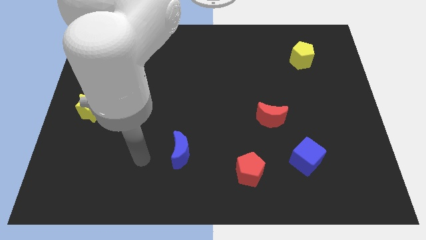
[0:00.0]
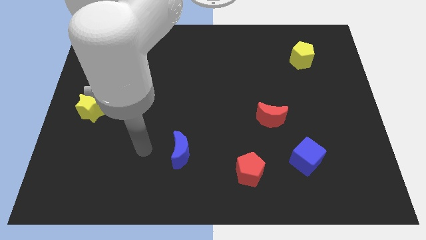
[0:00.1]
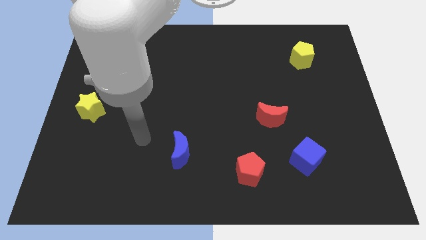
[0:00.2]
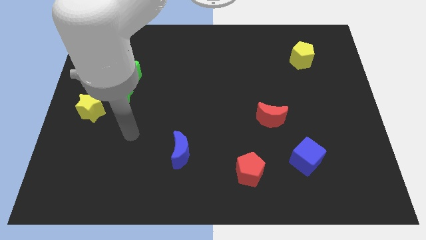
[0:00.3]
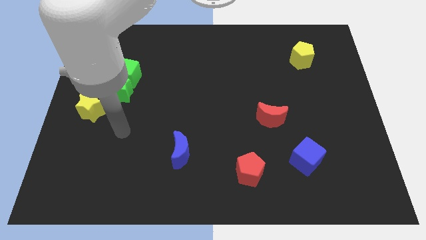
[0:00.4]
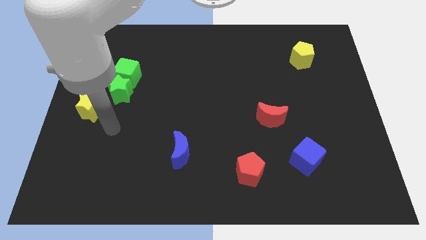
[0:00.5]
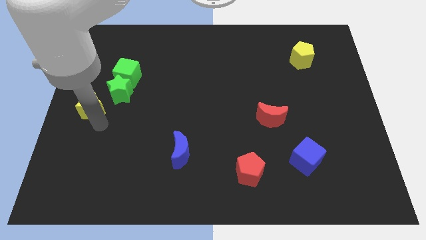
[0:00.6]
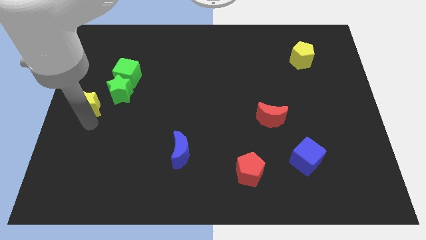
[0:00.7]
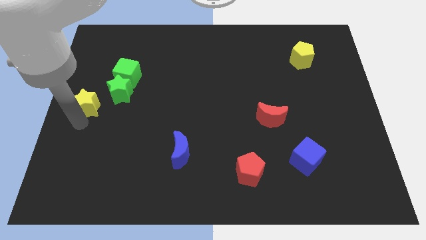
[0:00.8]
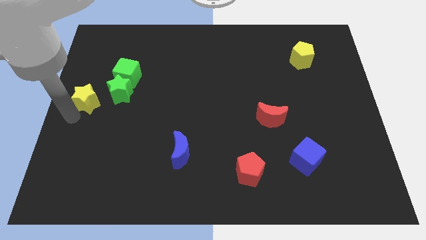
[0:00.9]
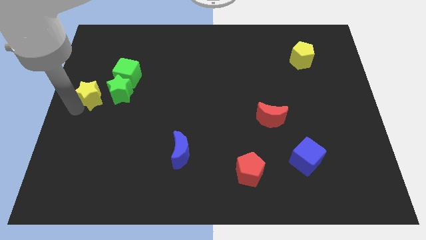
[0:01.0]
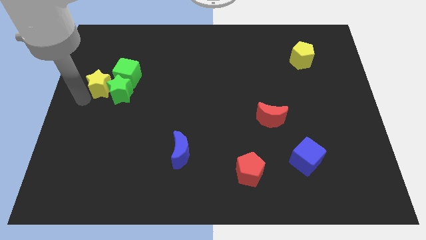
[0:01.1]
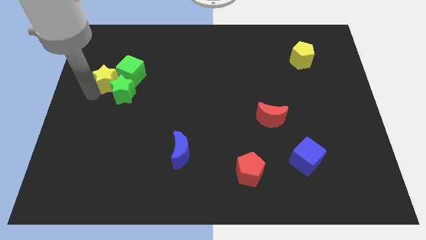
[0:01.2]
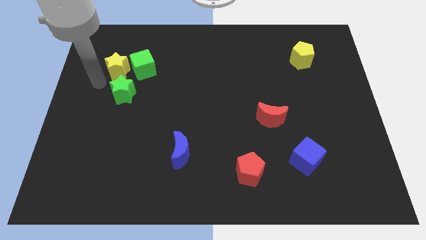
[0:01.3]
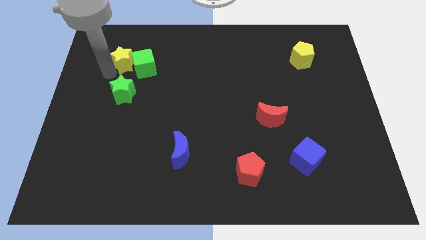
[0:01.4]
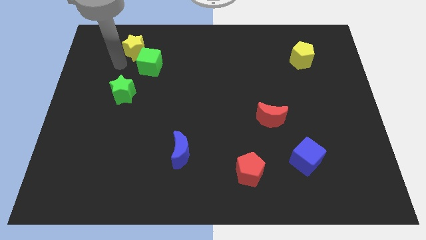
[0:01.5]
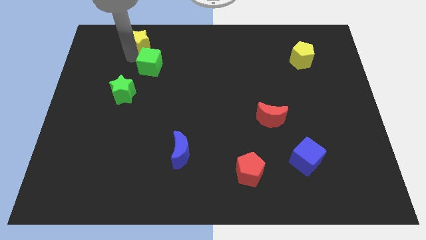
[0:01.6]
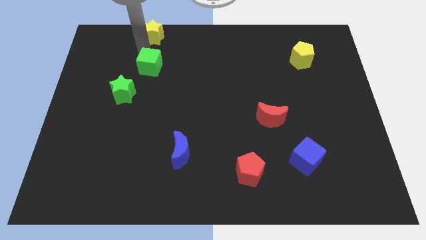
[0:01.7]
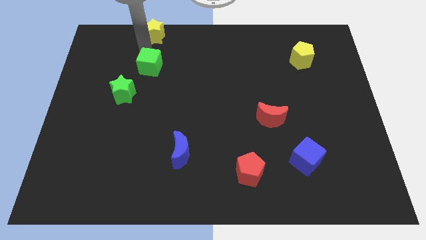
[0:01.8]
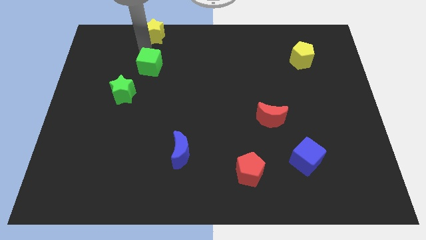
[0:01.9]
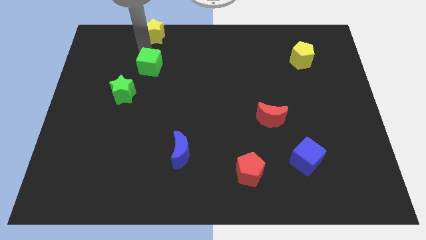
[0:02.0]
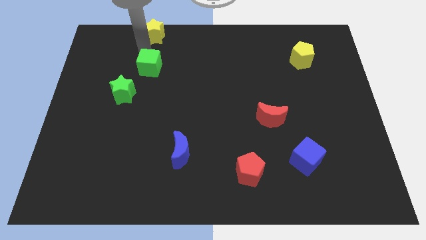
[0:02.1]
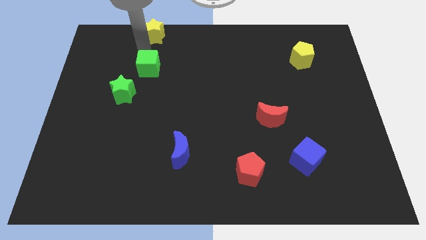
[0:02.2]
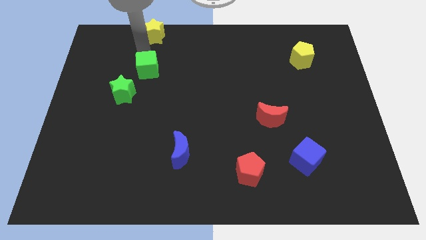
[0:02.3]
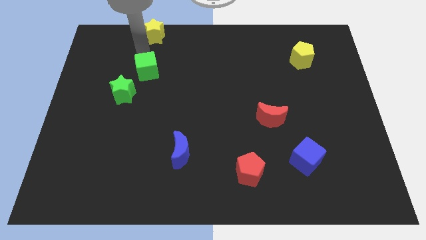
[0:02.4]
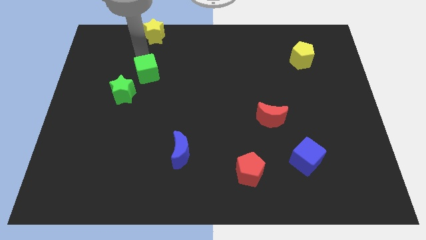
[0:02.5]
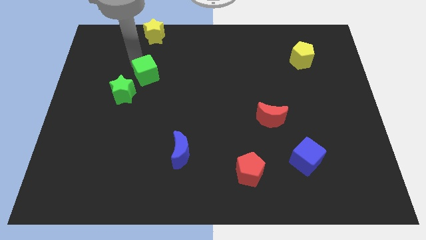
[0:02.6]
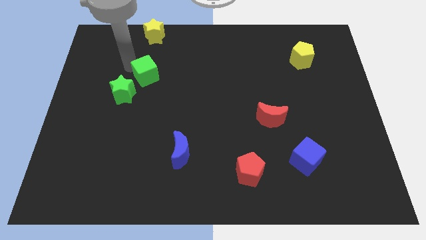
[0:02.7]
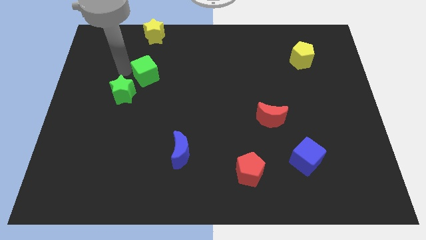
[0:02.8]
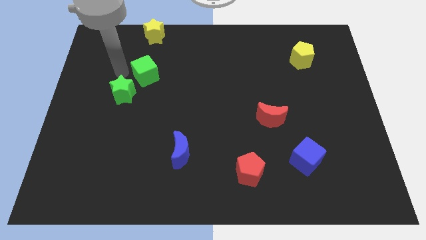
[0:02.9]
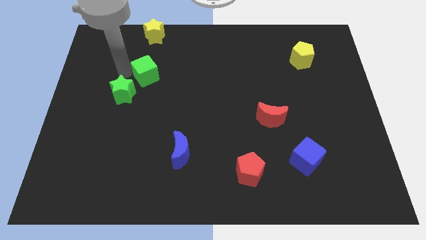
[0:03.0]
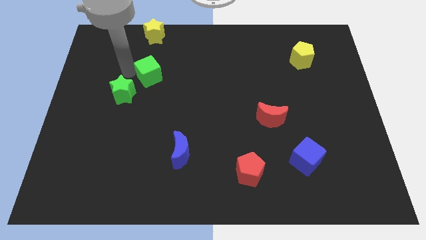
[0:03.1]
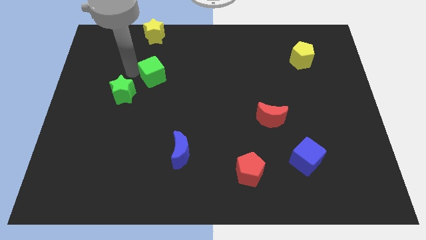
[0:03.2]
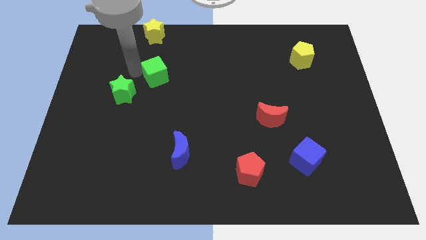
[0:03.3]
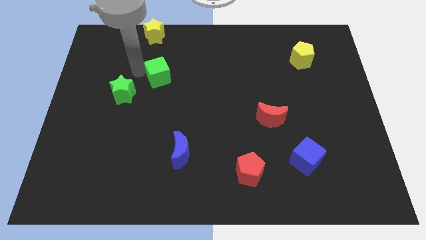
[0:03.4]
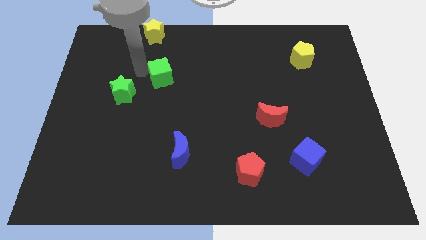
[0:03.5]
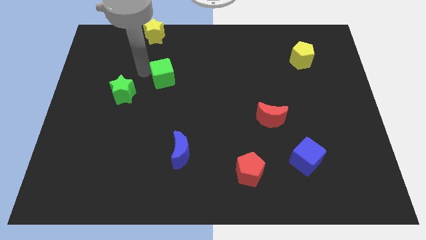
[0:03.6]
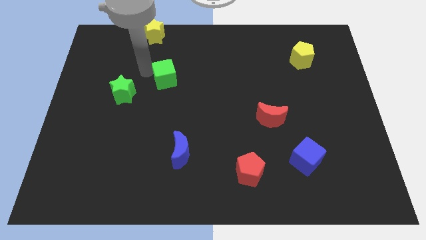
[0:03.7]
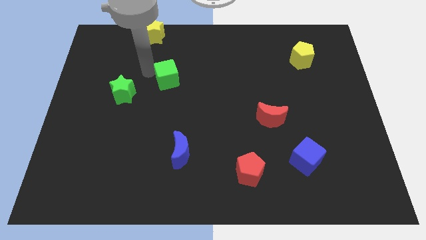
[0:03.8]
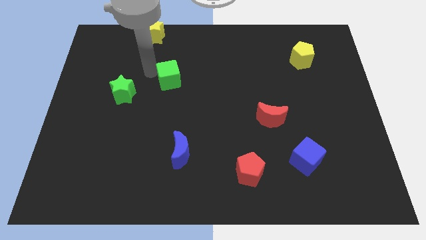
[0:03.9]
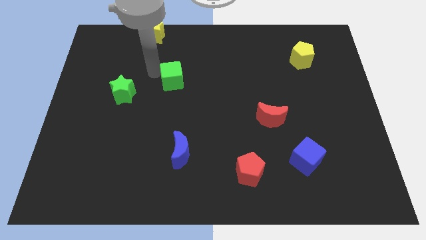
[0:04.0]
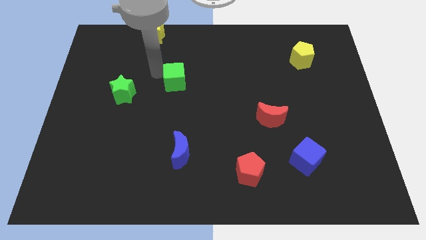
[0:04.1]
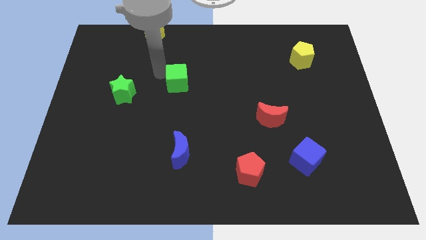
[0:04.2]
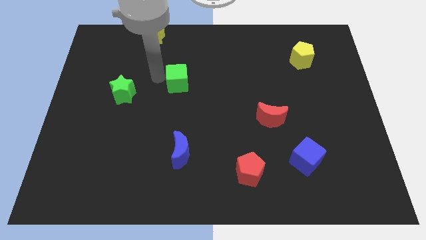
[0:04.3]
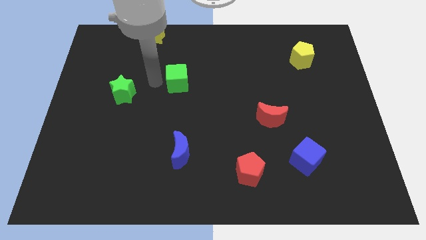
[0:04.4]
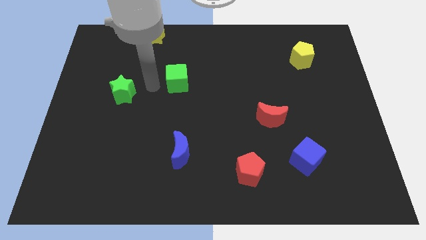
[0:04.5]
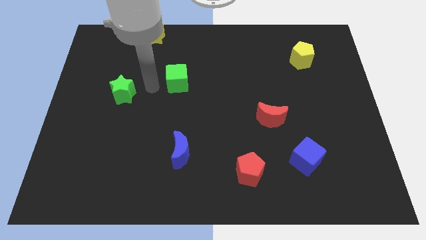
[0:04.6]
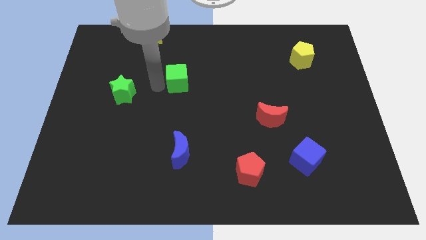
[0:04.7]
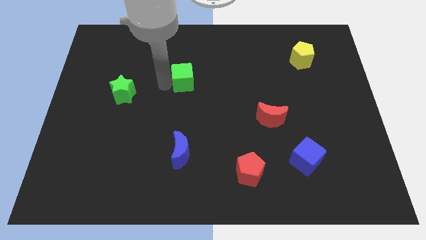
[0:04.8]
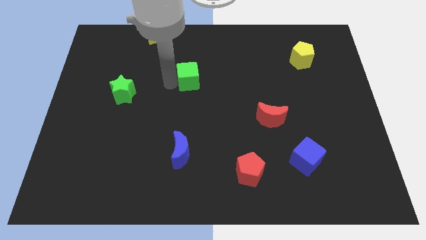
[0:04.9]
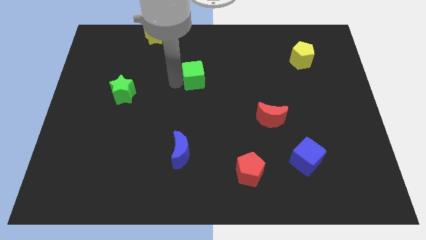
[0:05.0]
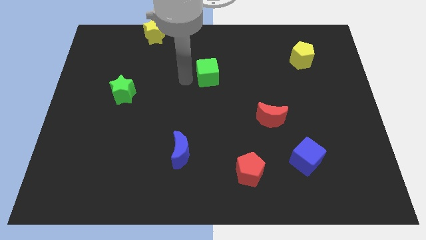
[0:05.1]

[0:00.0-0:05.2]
slide the green cube to the right

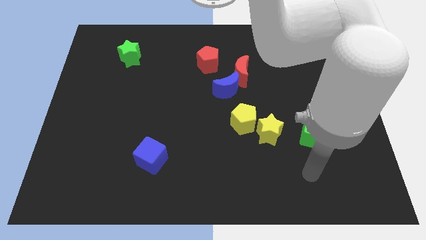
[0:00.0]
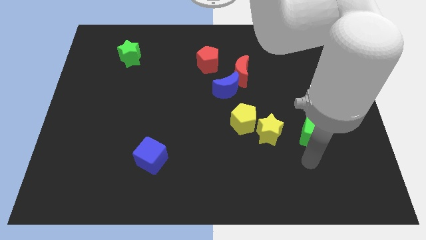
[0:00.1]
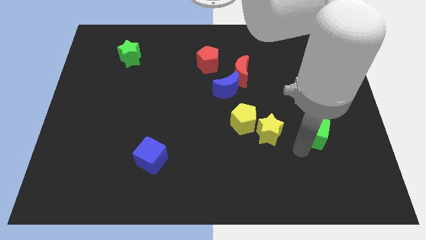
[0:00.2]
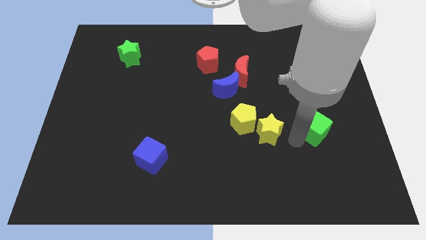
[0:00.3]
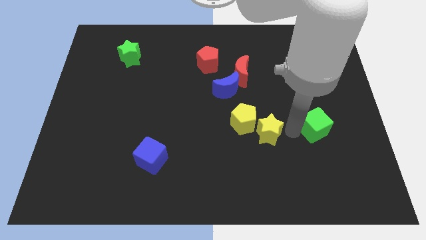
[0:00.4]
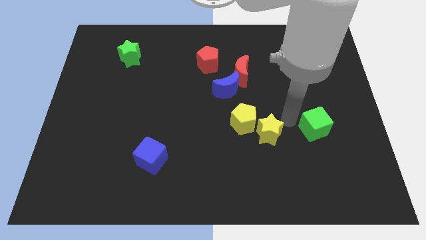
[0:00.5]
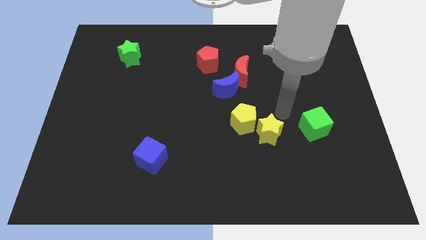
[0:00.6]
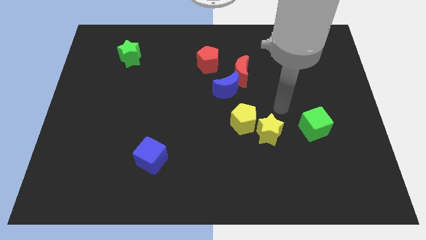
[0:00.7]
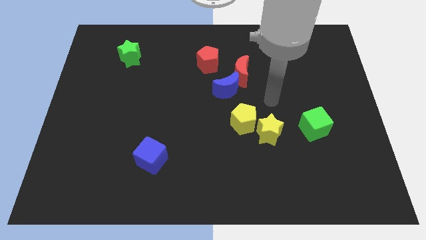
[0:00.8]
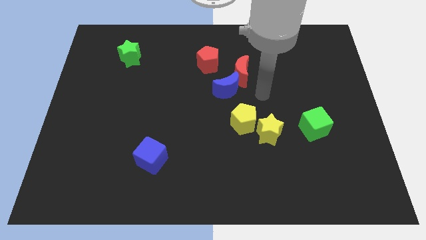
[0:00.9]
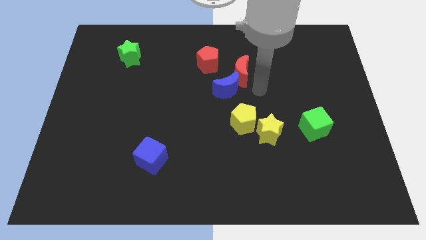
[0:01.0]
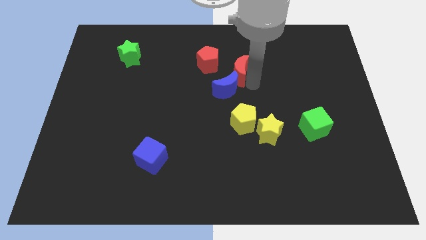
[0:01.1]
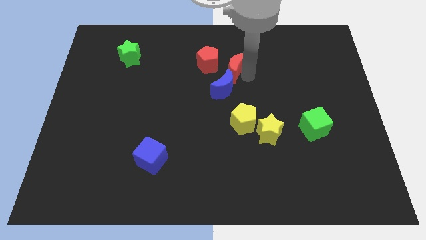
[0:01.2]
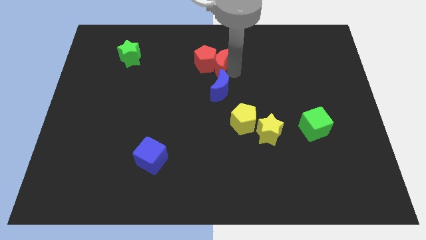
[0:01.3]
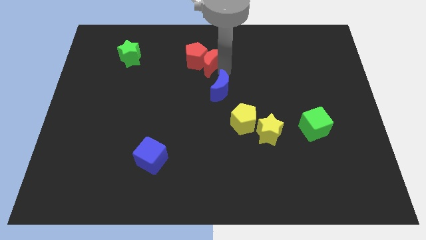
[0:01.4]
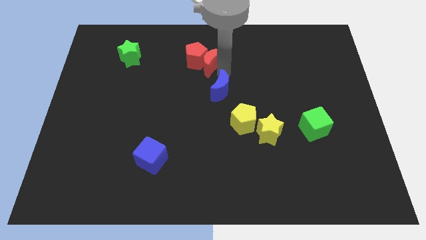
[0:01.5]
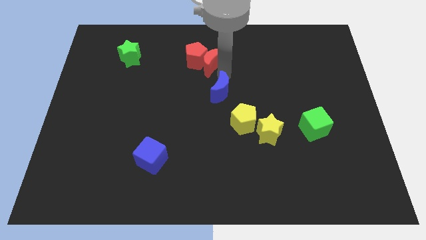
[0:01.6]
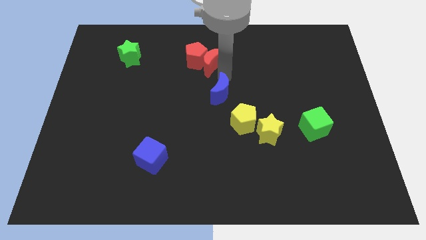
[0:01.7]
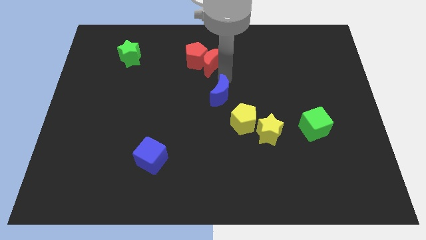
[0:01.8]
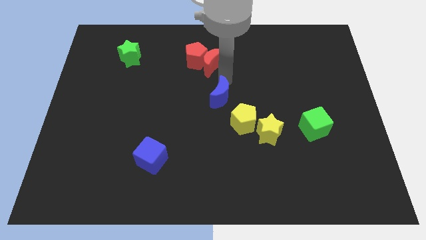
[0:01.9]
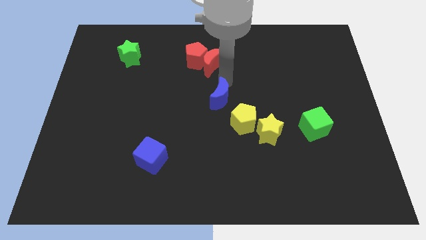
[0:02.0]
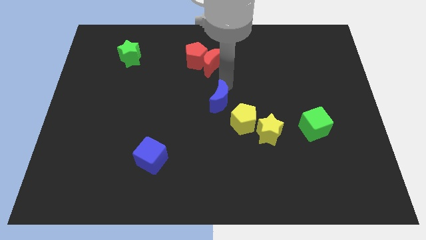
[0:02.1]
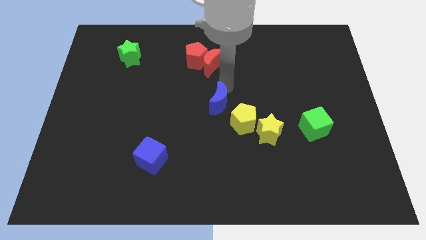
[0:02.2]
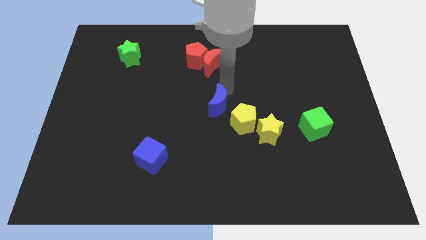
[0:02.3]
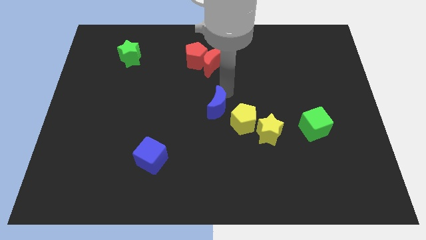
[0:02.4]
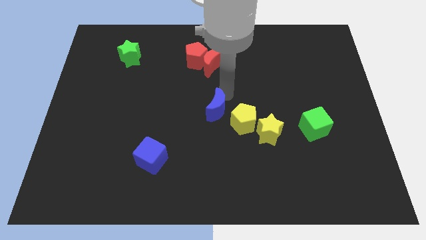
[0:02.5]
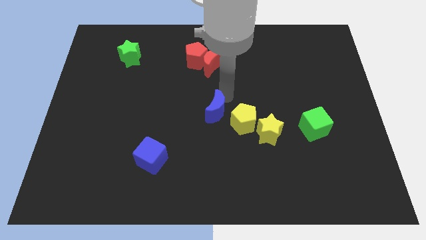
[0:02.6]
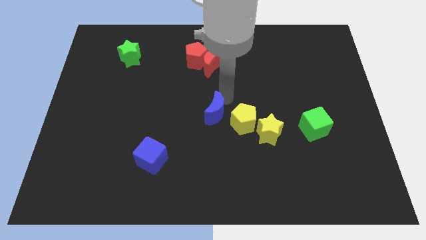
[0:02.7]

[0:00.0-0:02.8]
slightly slide the blue moon down

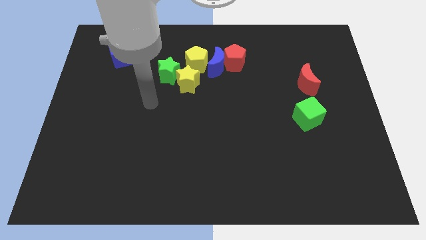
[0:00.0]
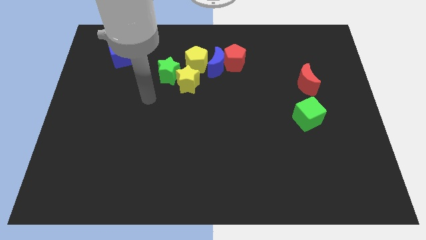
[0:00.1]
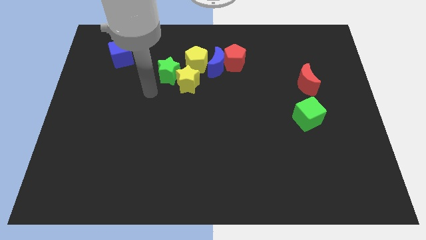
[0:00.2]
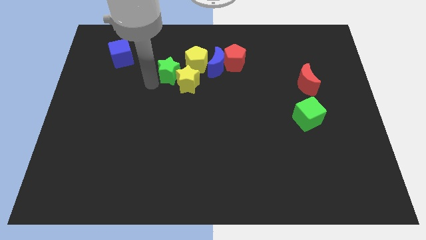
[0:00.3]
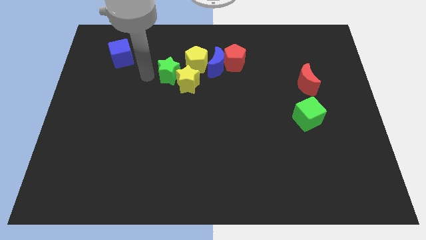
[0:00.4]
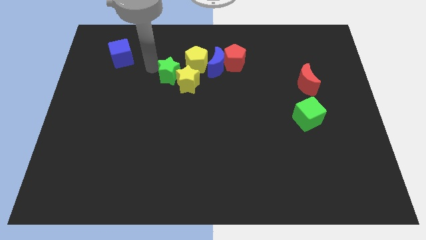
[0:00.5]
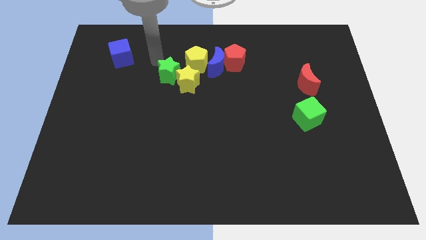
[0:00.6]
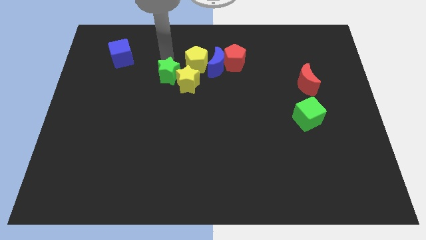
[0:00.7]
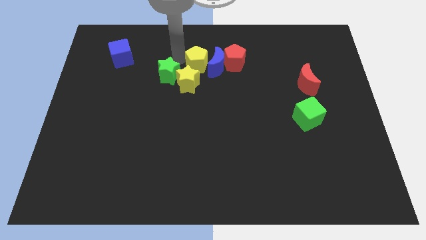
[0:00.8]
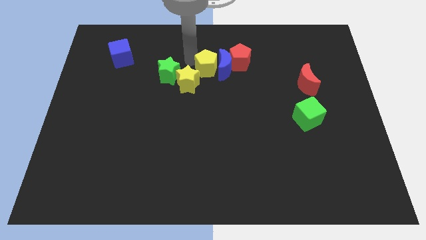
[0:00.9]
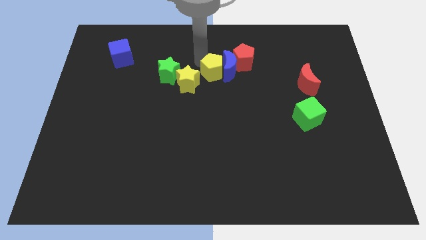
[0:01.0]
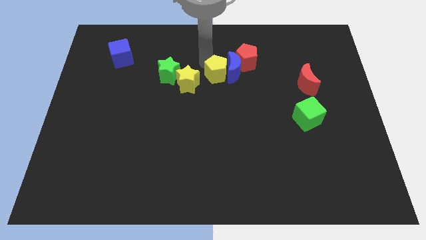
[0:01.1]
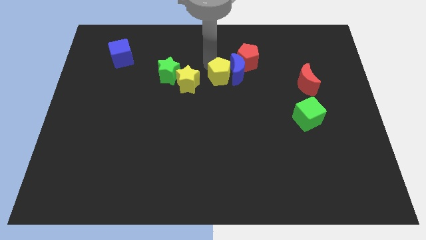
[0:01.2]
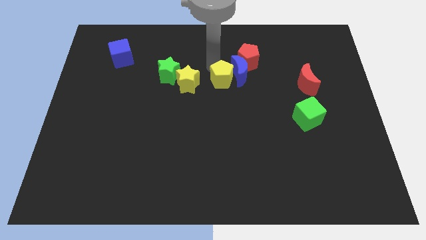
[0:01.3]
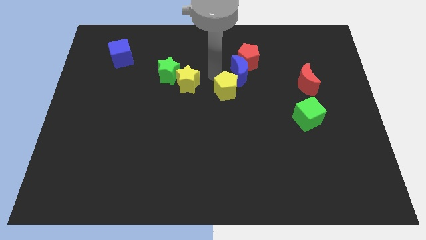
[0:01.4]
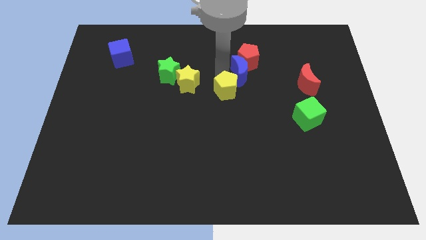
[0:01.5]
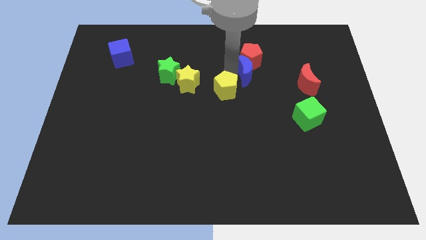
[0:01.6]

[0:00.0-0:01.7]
move the blue moon a little right
